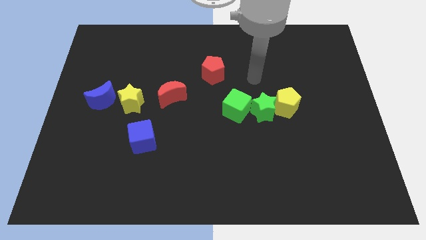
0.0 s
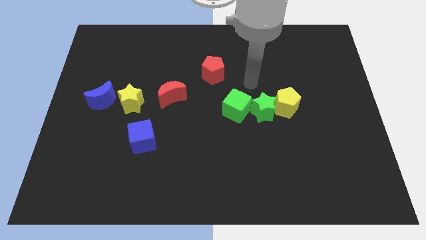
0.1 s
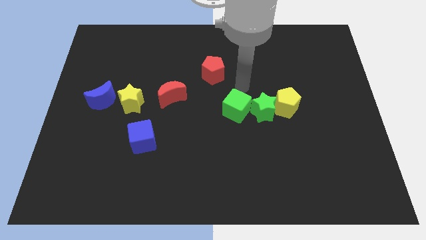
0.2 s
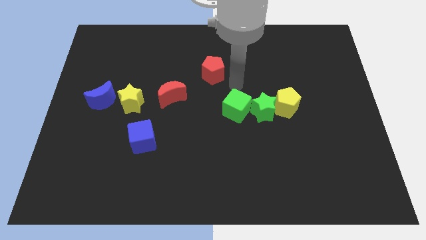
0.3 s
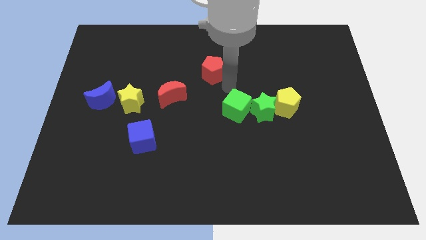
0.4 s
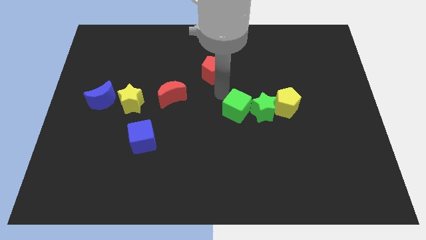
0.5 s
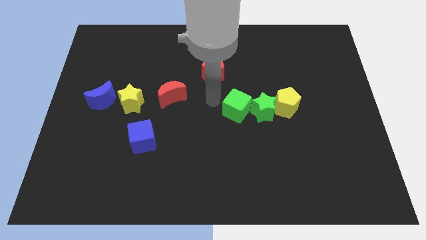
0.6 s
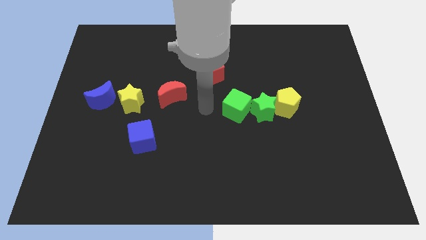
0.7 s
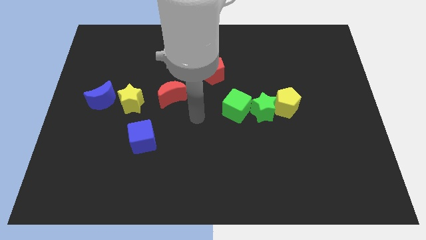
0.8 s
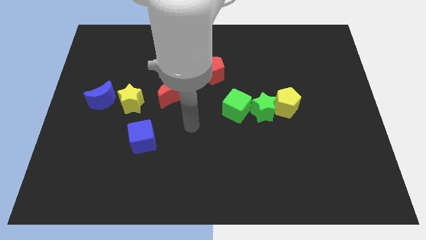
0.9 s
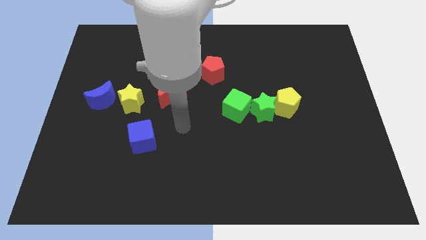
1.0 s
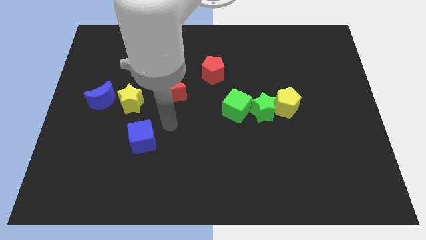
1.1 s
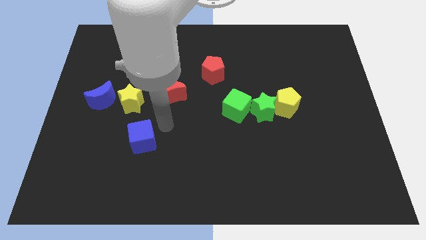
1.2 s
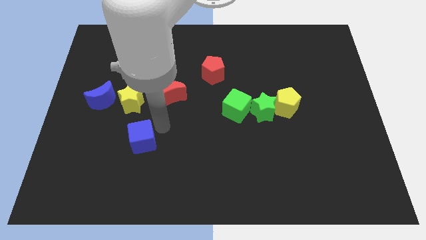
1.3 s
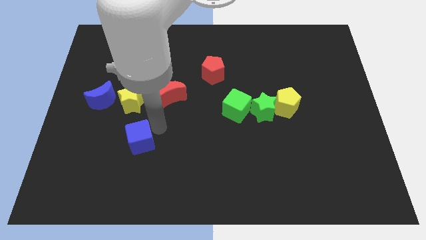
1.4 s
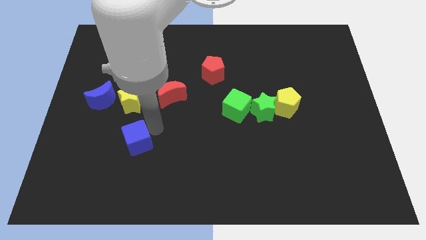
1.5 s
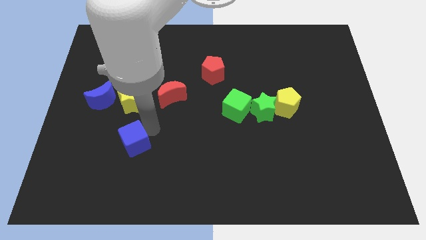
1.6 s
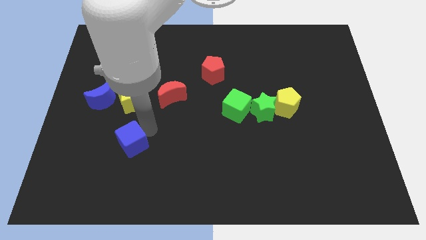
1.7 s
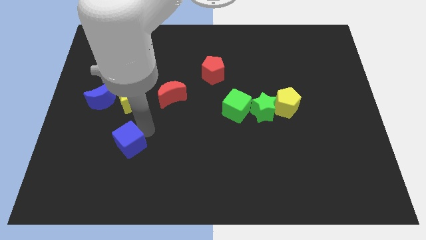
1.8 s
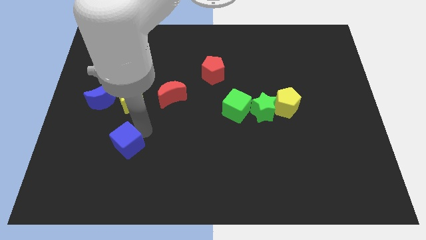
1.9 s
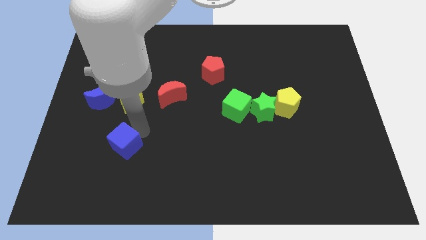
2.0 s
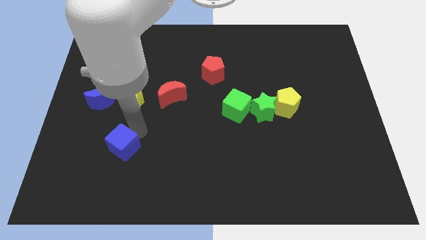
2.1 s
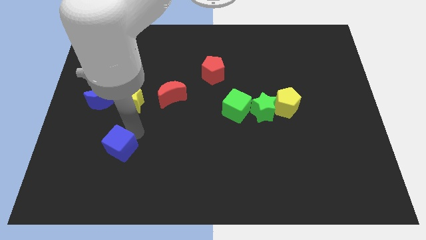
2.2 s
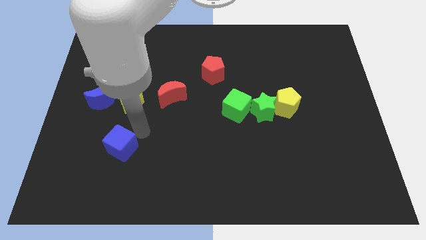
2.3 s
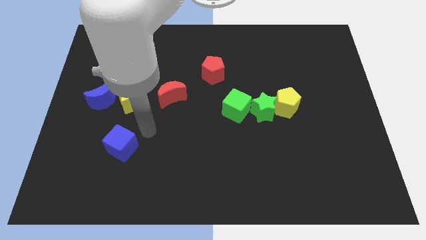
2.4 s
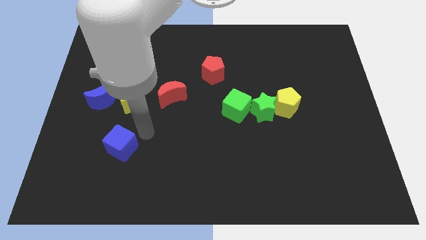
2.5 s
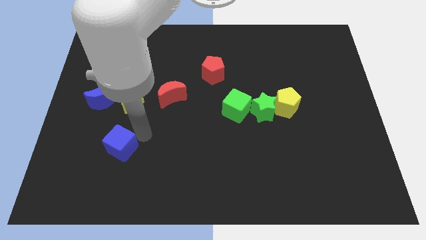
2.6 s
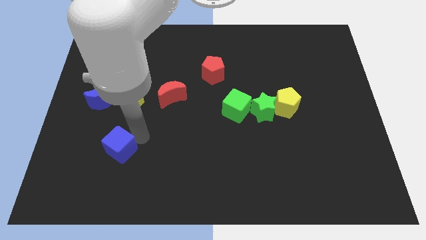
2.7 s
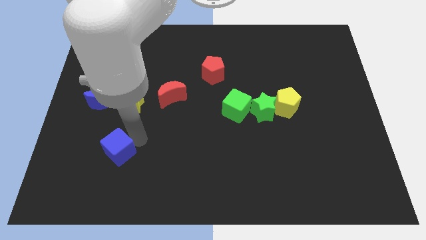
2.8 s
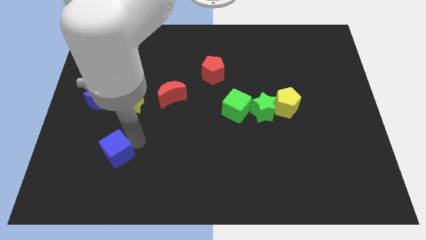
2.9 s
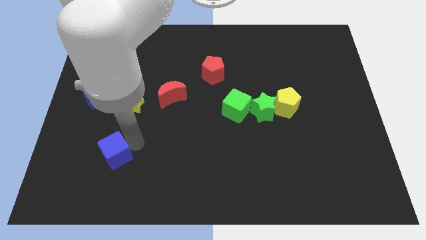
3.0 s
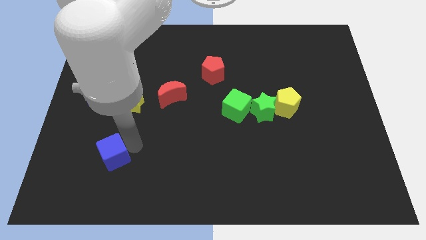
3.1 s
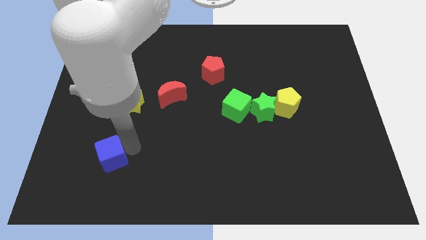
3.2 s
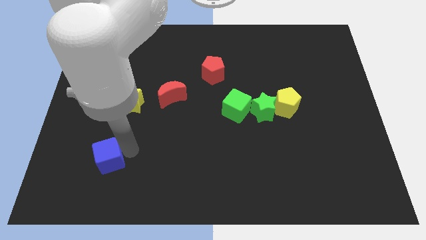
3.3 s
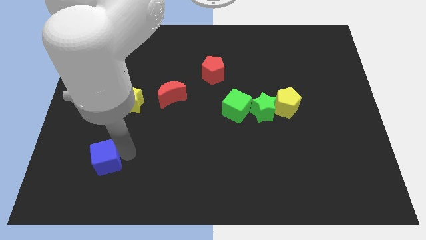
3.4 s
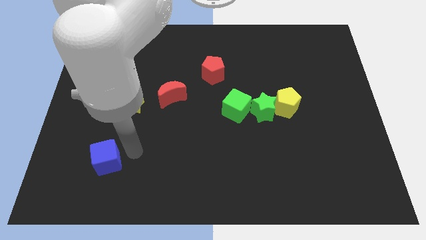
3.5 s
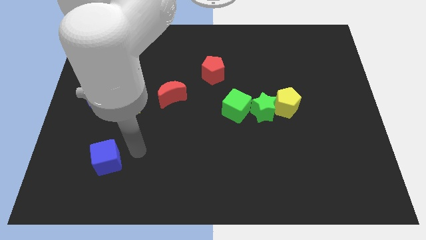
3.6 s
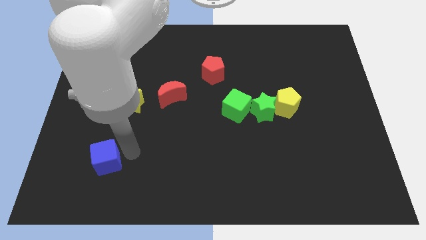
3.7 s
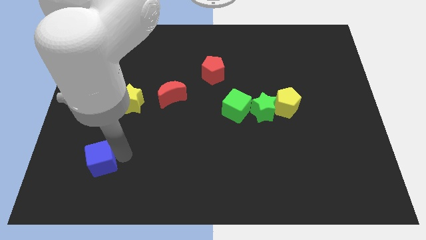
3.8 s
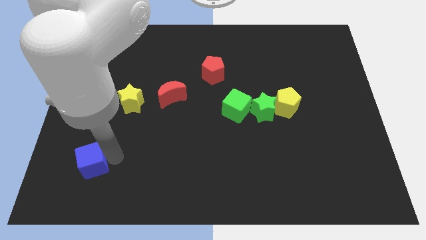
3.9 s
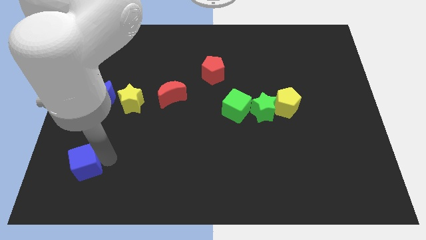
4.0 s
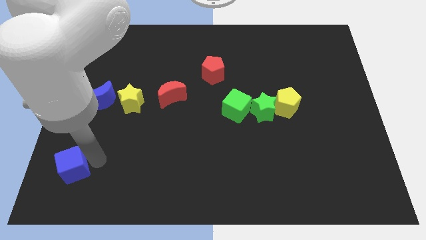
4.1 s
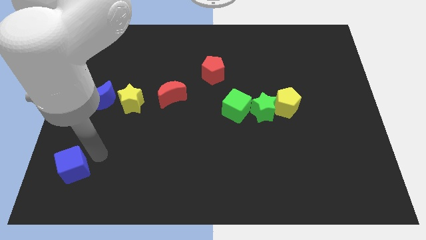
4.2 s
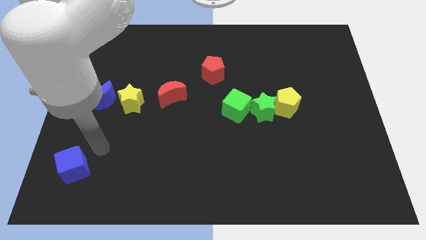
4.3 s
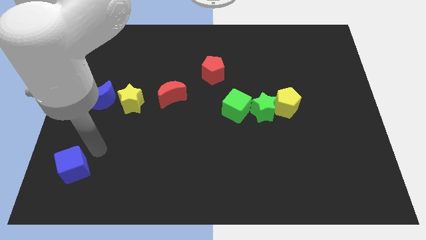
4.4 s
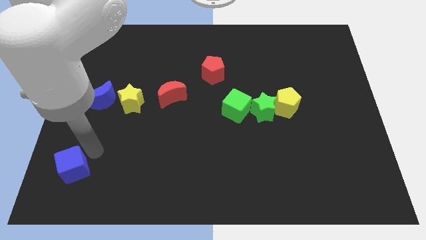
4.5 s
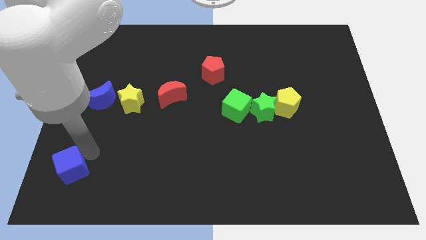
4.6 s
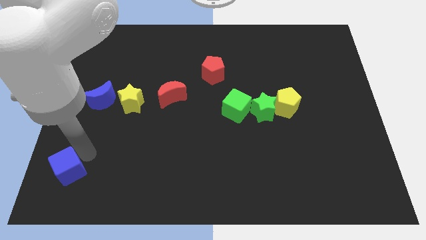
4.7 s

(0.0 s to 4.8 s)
slide the blue cube to the lower left corner

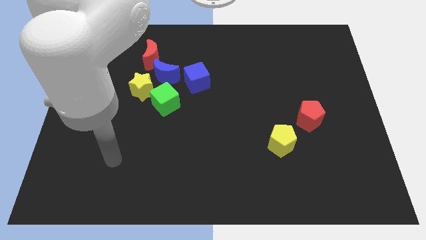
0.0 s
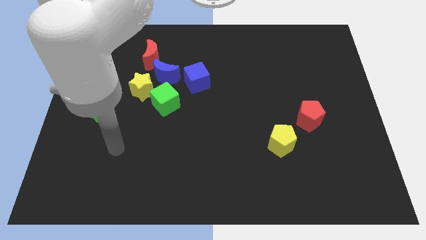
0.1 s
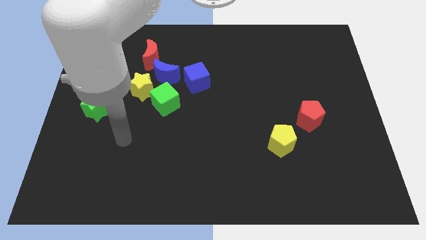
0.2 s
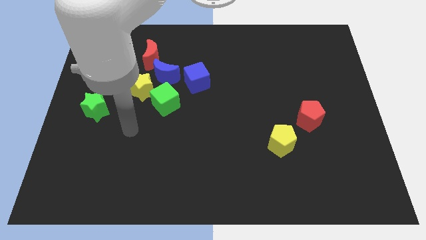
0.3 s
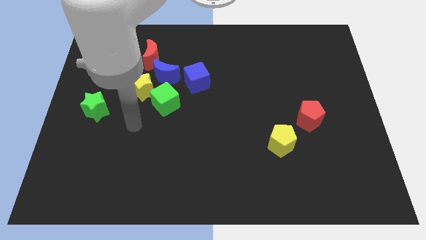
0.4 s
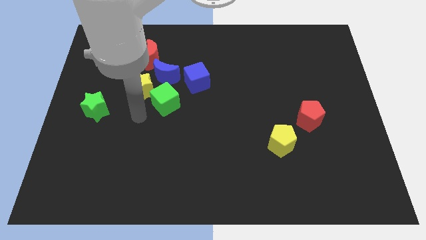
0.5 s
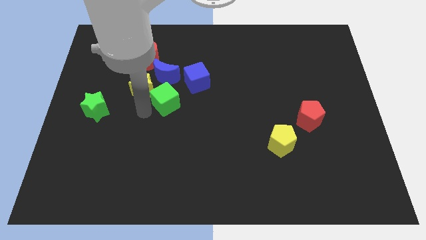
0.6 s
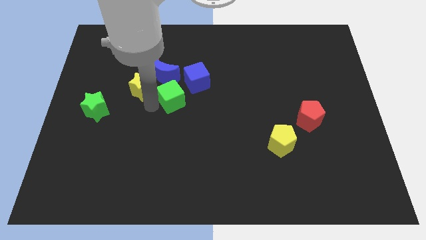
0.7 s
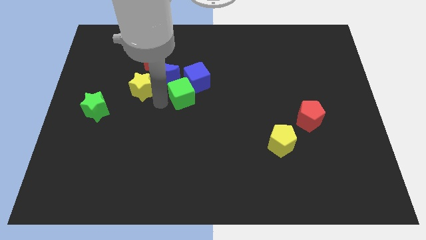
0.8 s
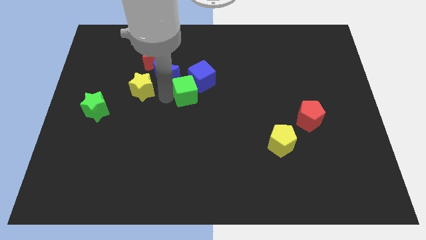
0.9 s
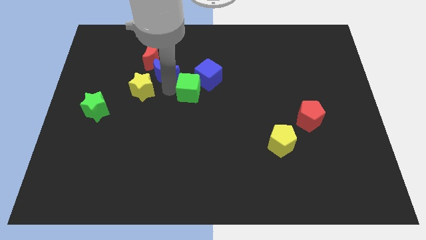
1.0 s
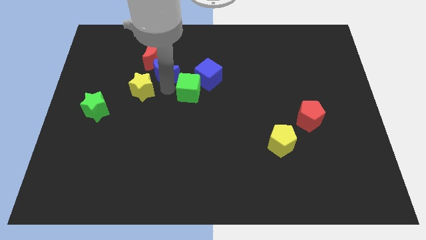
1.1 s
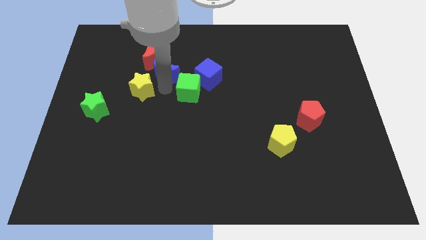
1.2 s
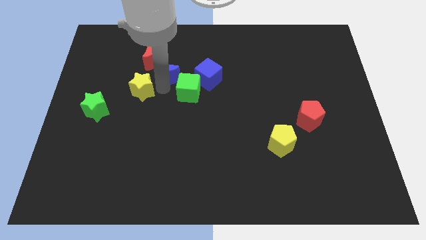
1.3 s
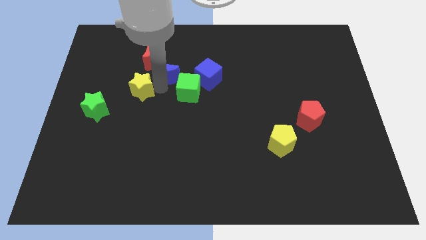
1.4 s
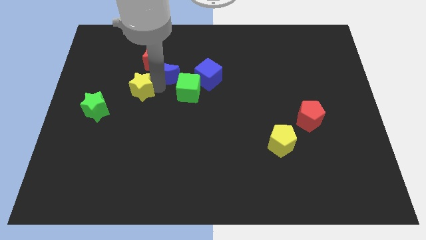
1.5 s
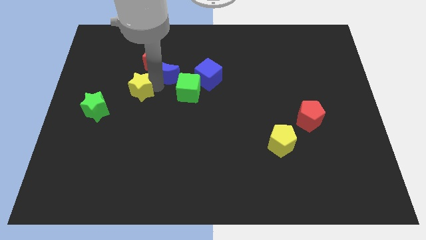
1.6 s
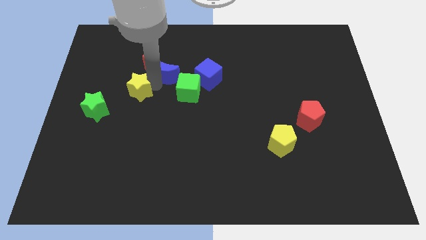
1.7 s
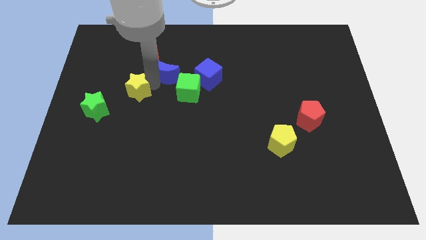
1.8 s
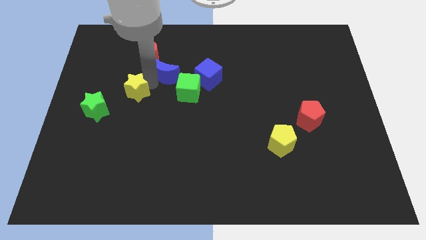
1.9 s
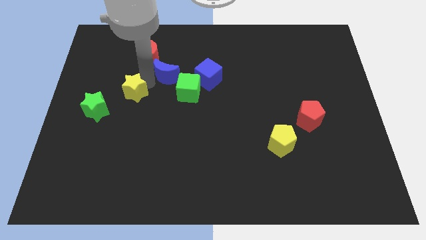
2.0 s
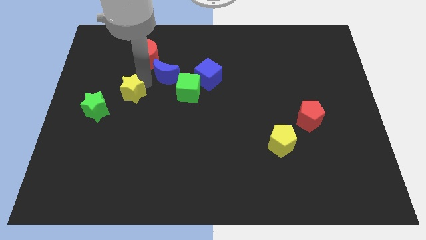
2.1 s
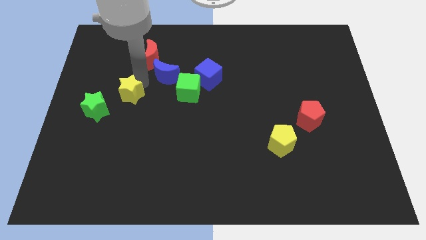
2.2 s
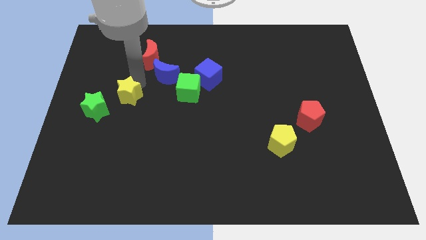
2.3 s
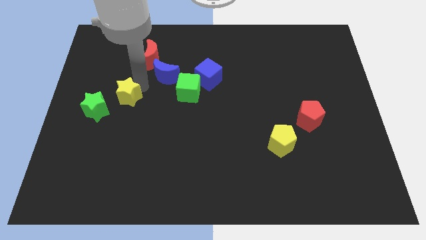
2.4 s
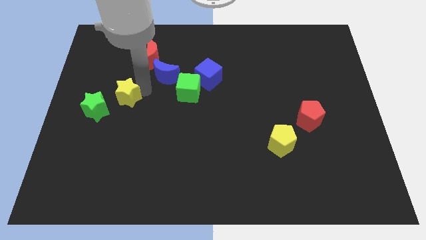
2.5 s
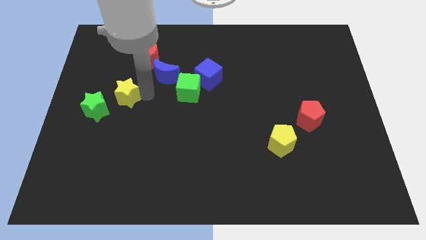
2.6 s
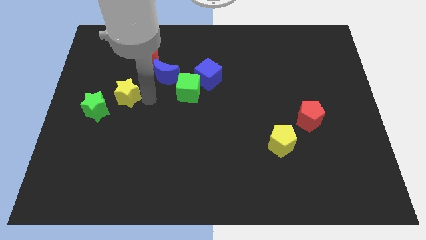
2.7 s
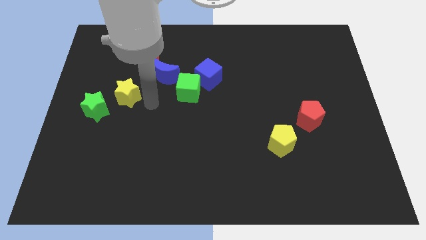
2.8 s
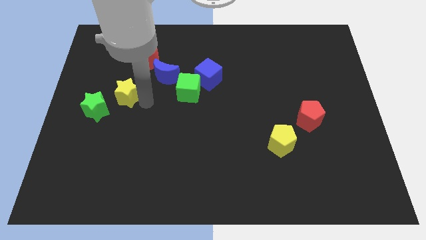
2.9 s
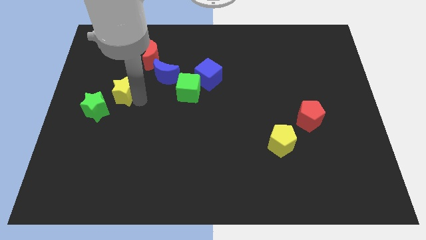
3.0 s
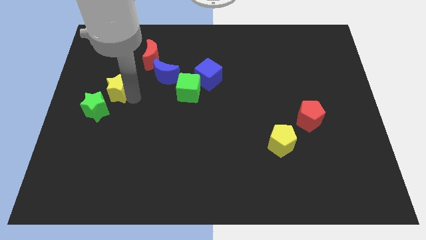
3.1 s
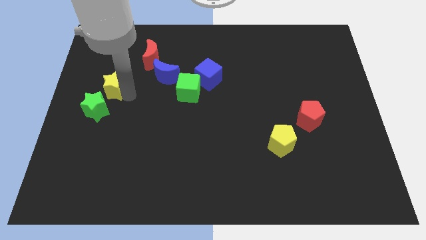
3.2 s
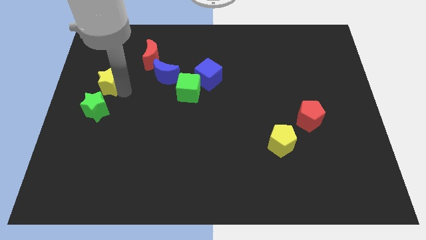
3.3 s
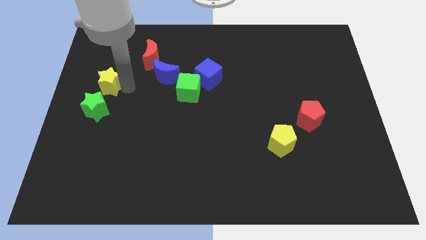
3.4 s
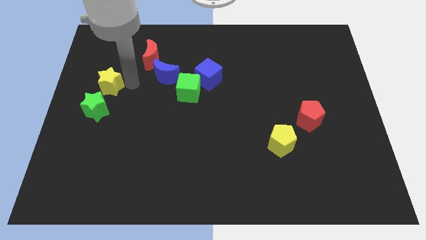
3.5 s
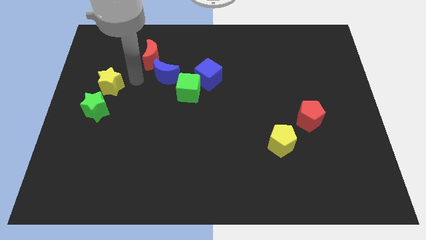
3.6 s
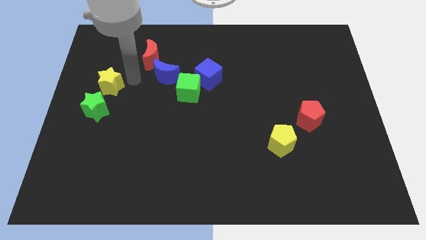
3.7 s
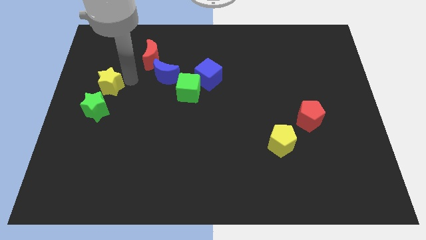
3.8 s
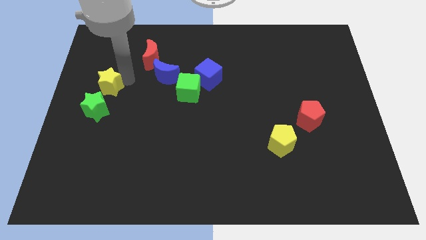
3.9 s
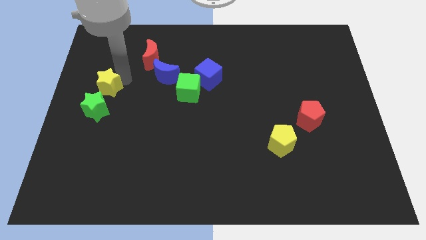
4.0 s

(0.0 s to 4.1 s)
move the yellow star to the center left
